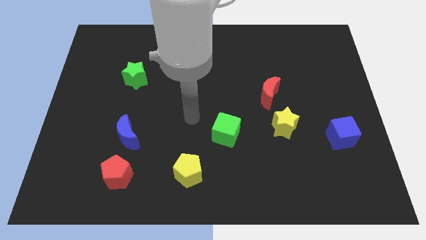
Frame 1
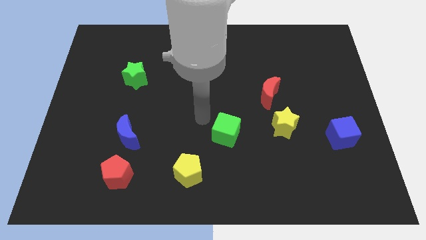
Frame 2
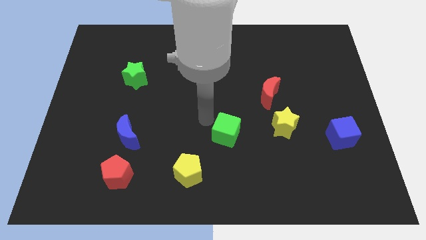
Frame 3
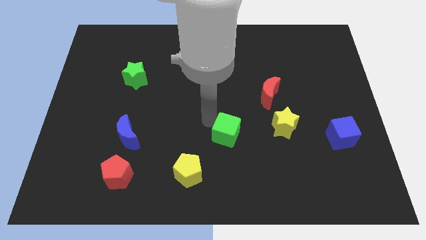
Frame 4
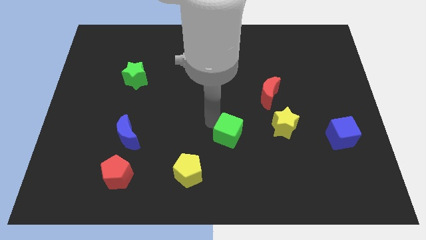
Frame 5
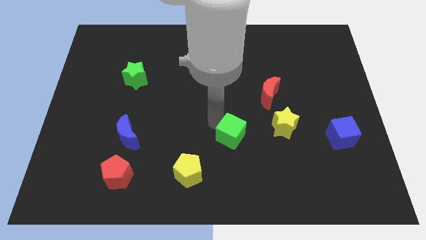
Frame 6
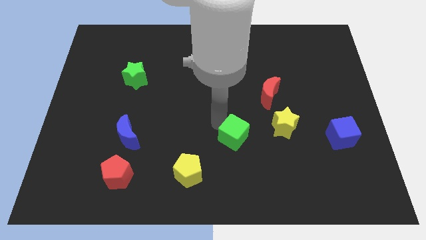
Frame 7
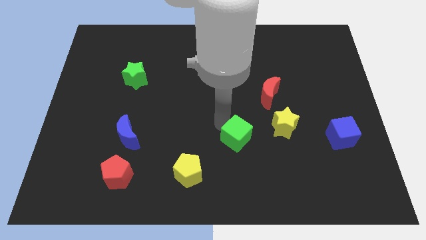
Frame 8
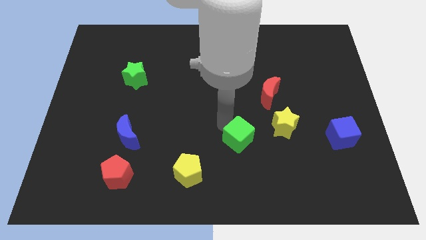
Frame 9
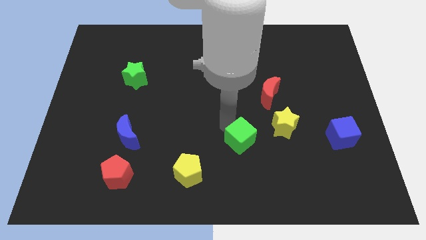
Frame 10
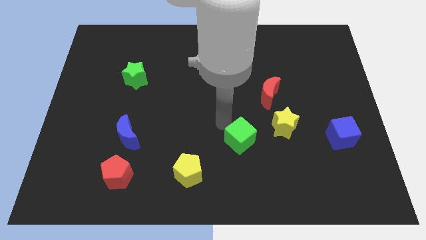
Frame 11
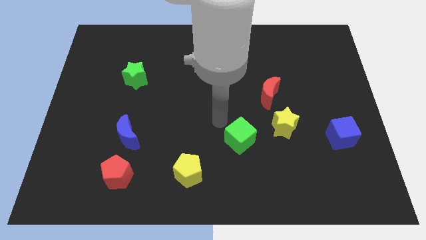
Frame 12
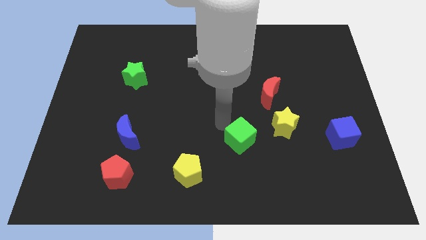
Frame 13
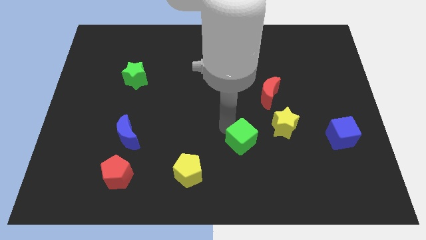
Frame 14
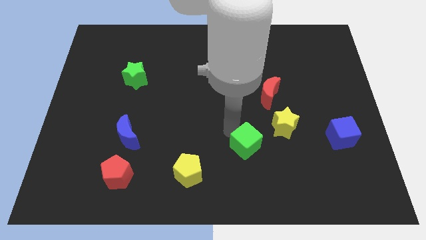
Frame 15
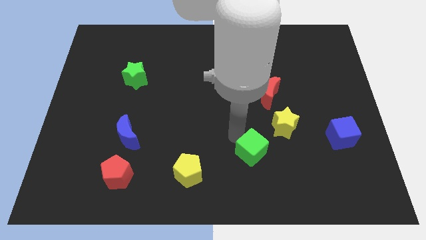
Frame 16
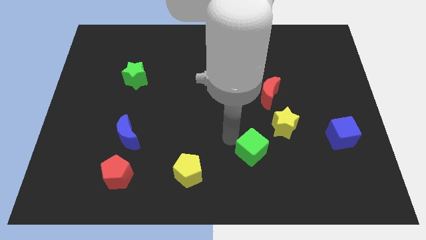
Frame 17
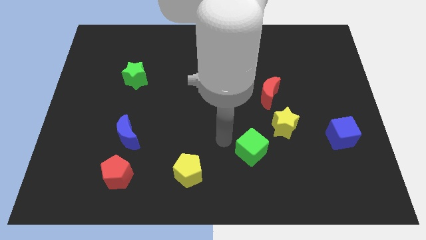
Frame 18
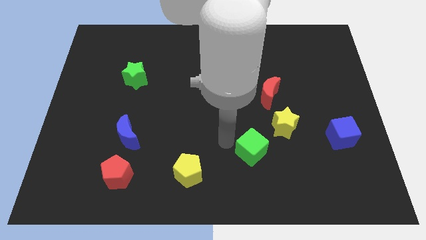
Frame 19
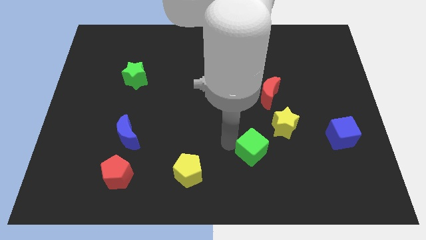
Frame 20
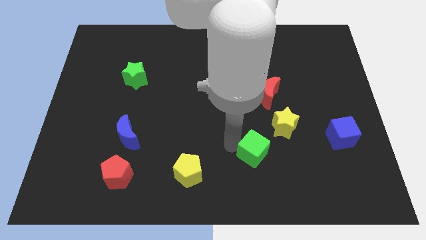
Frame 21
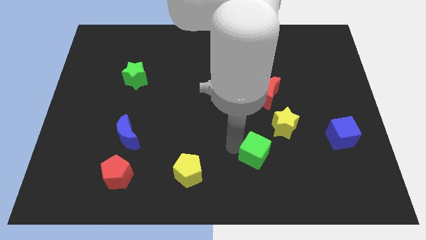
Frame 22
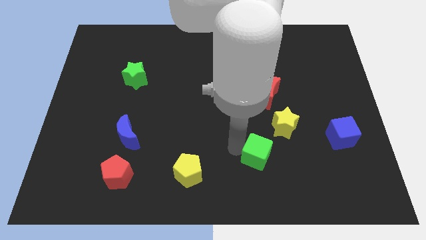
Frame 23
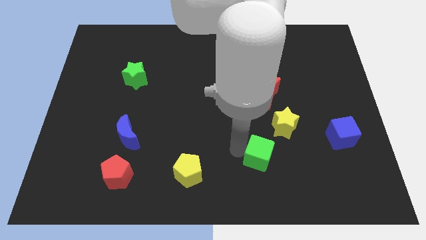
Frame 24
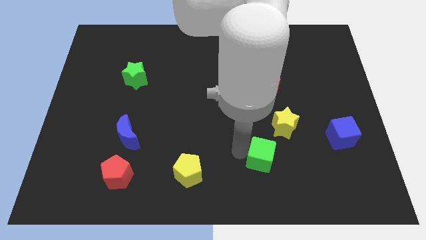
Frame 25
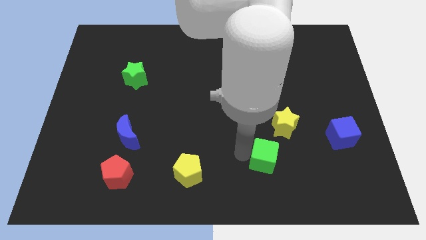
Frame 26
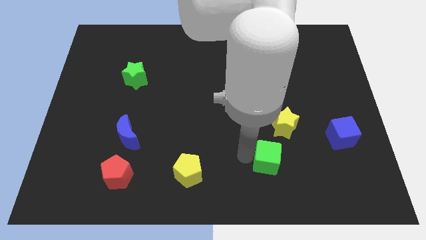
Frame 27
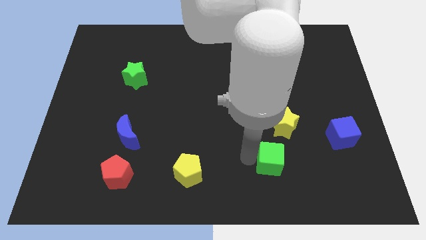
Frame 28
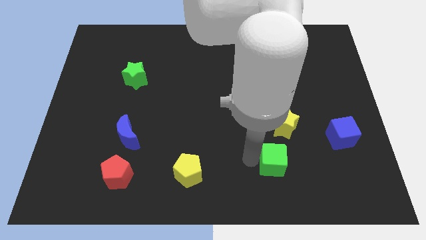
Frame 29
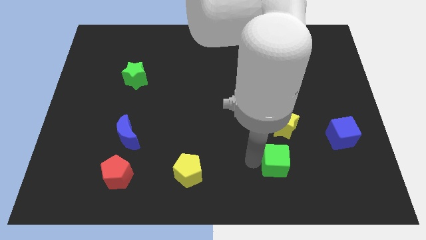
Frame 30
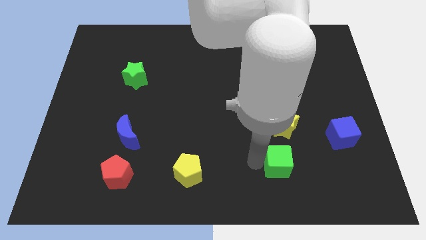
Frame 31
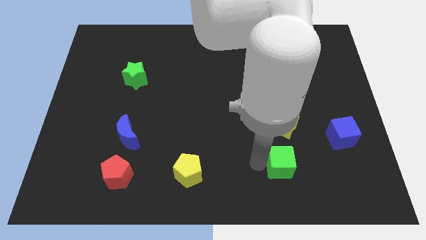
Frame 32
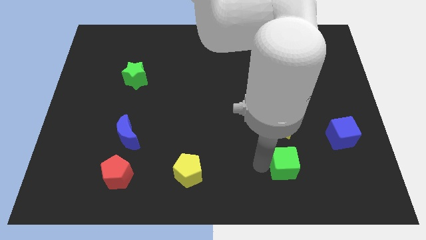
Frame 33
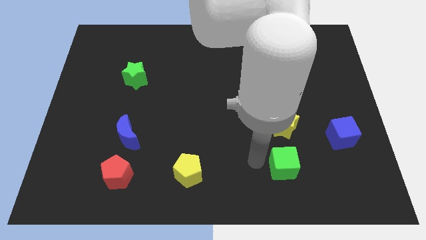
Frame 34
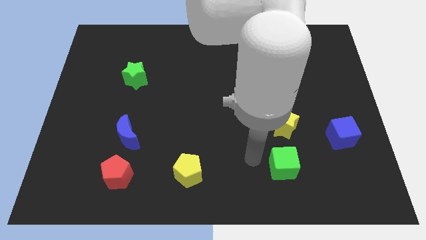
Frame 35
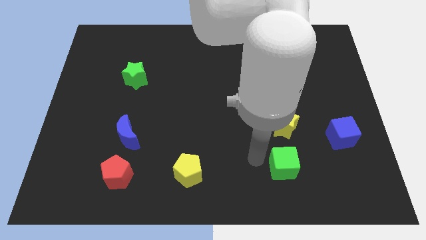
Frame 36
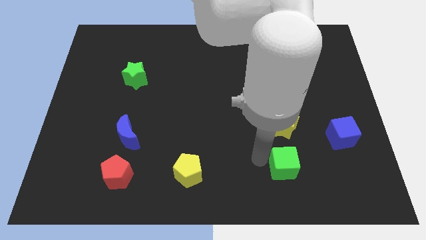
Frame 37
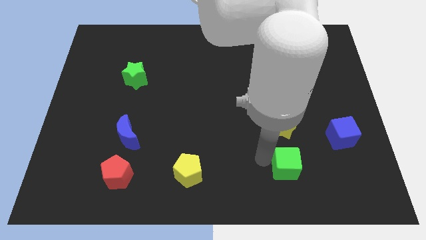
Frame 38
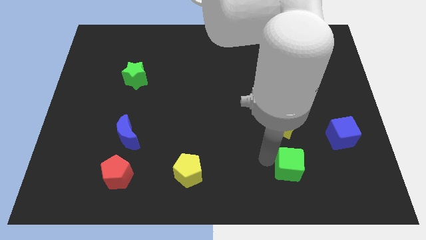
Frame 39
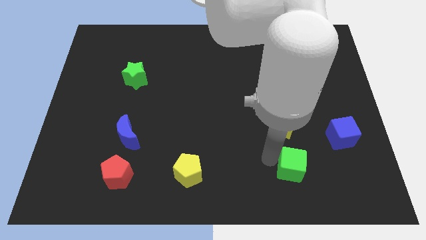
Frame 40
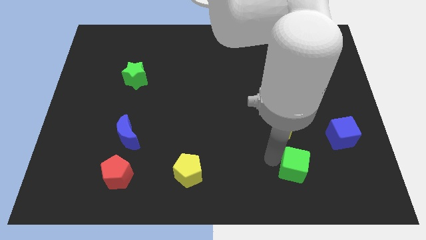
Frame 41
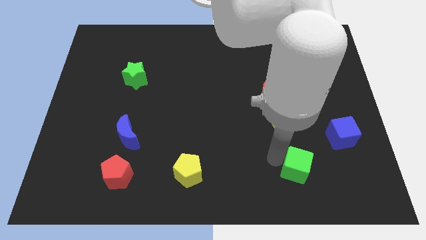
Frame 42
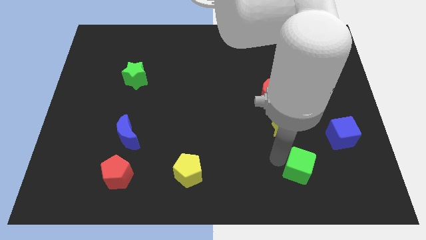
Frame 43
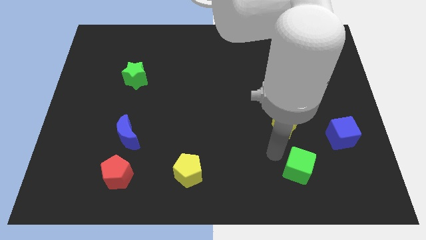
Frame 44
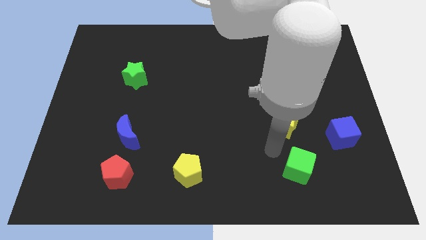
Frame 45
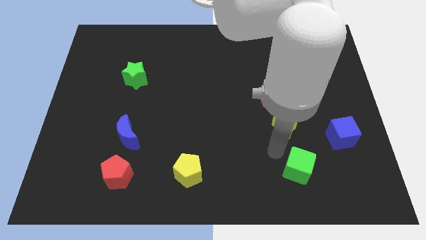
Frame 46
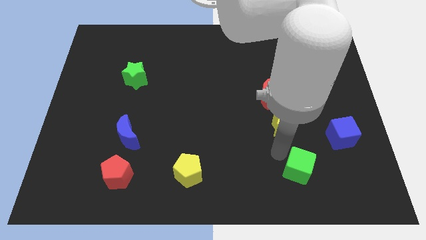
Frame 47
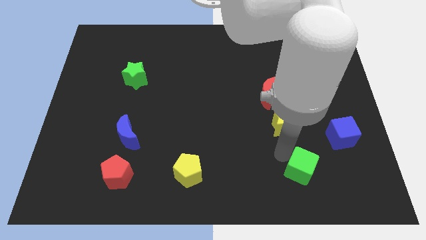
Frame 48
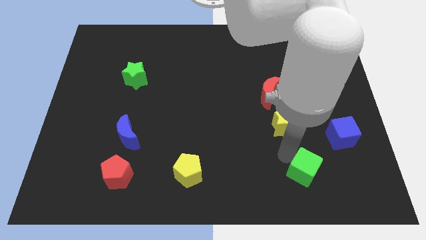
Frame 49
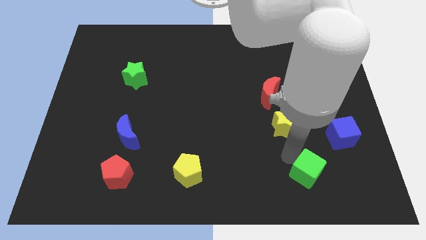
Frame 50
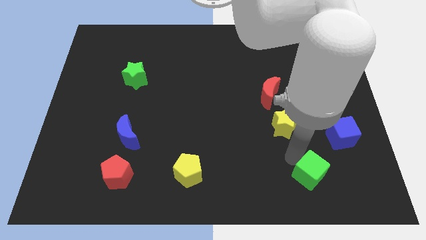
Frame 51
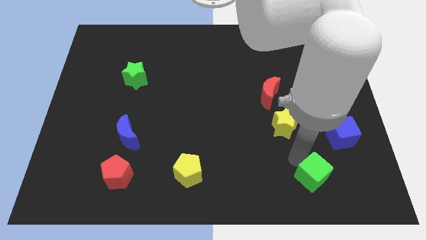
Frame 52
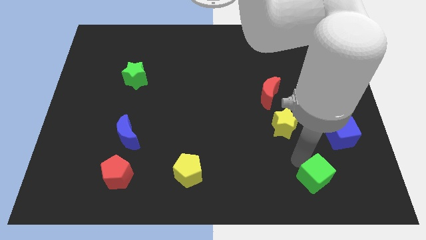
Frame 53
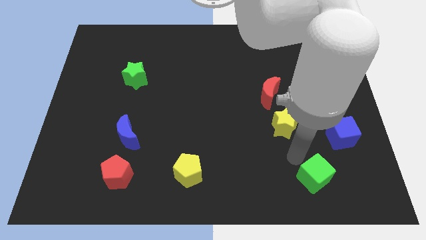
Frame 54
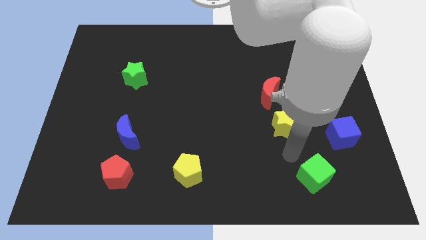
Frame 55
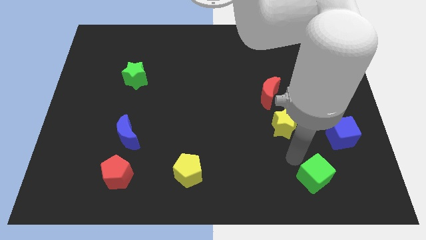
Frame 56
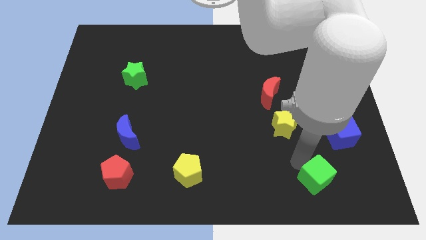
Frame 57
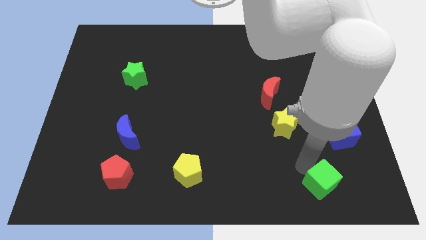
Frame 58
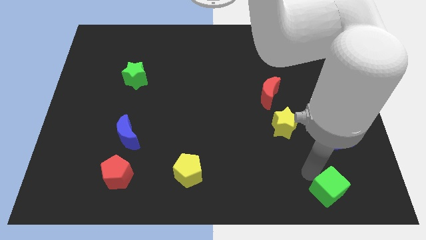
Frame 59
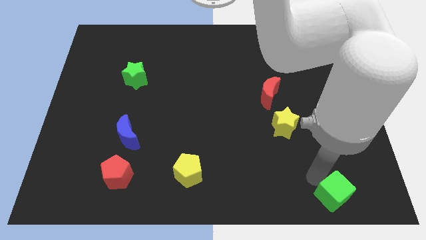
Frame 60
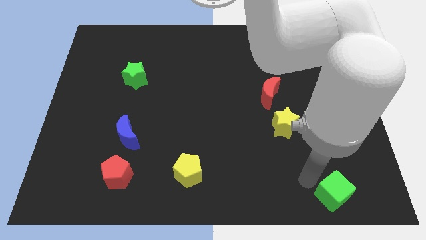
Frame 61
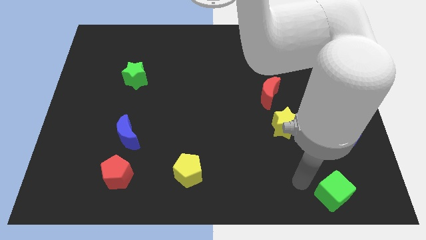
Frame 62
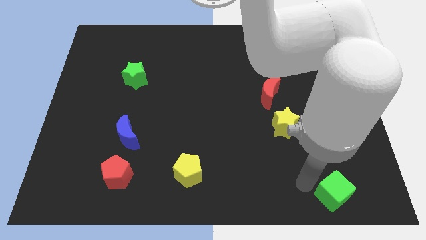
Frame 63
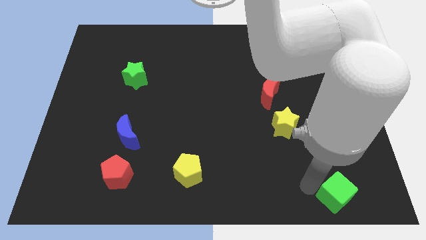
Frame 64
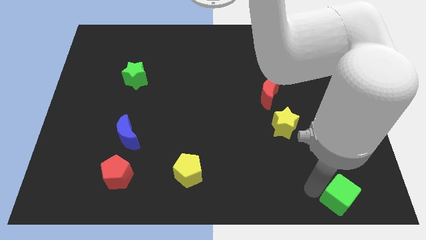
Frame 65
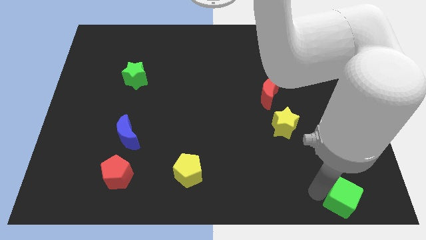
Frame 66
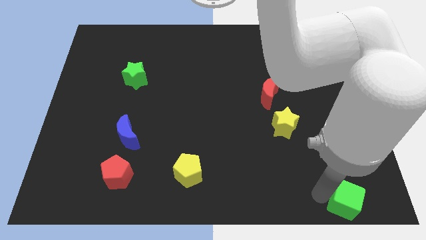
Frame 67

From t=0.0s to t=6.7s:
move the green cube to the bottom right corner

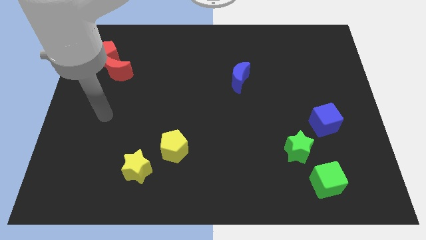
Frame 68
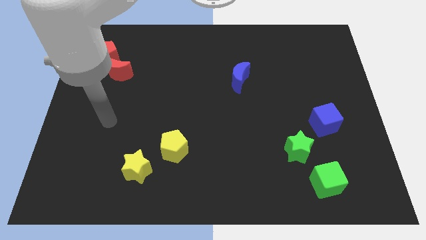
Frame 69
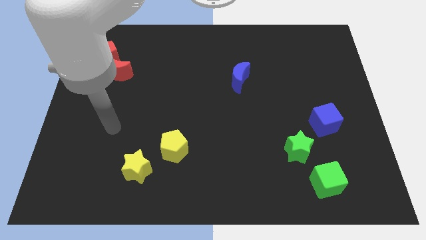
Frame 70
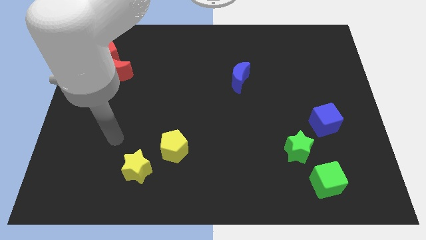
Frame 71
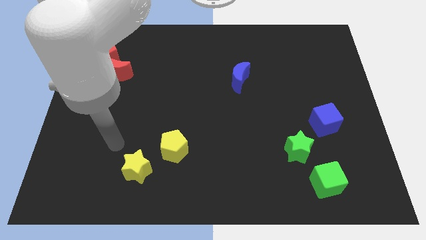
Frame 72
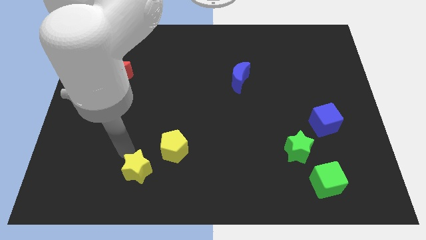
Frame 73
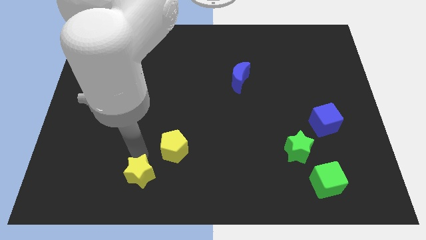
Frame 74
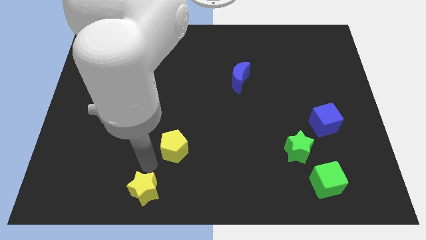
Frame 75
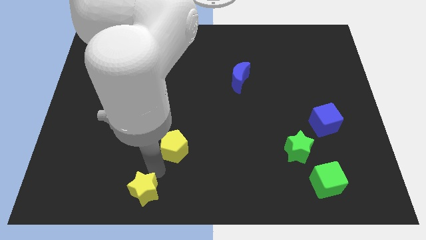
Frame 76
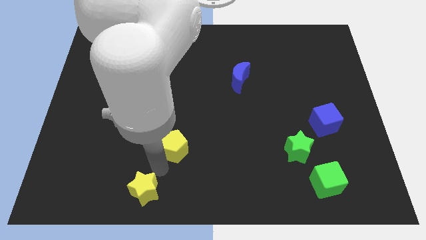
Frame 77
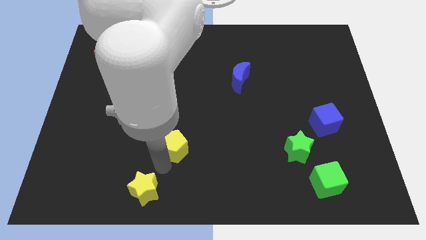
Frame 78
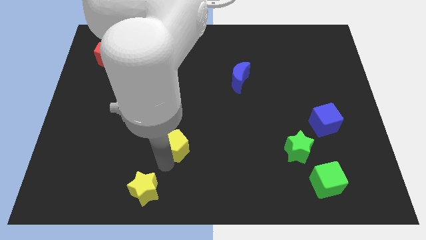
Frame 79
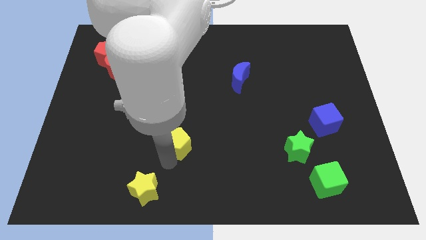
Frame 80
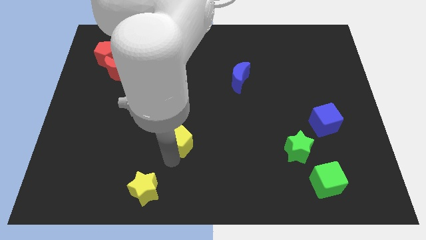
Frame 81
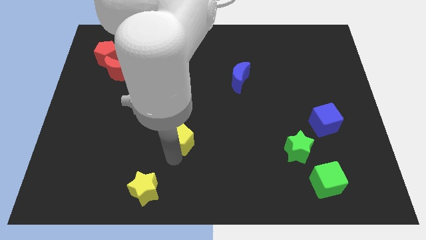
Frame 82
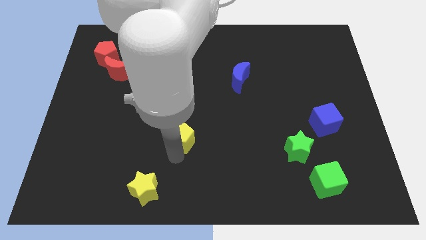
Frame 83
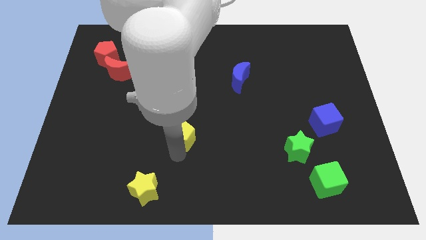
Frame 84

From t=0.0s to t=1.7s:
put the yellow pentagon to the middle of the board
